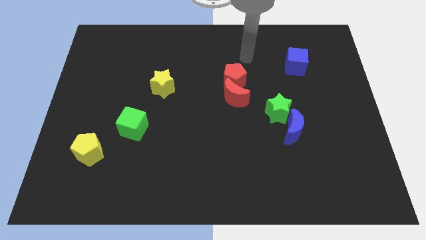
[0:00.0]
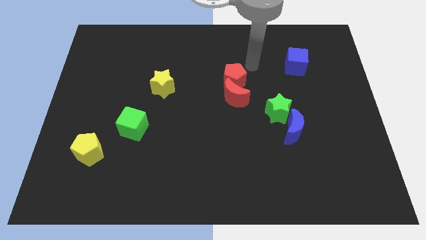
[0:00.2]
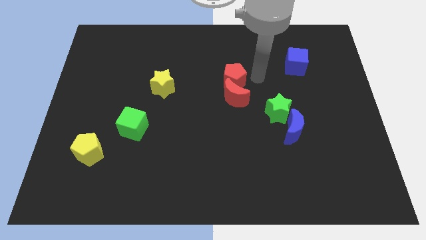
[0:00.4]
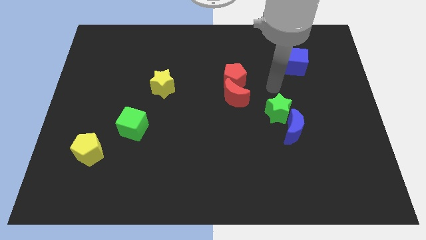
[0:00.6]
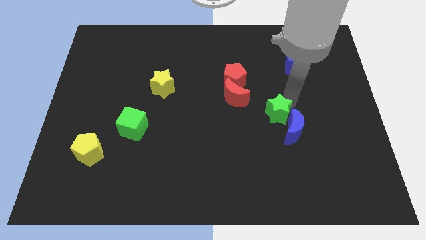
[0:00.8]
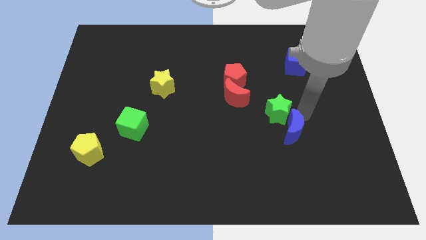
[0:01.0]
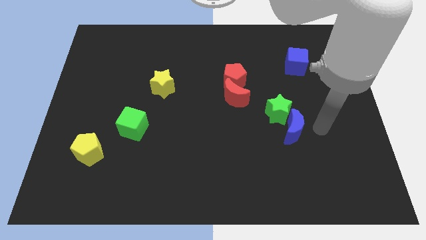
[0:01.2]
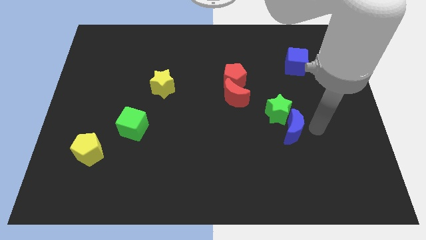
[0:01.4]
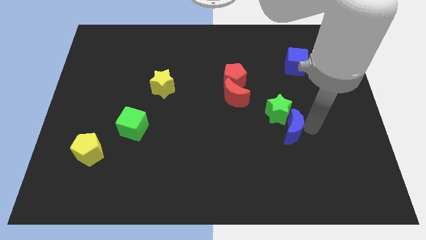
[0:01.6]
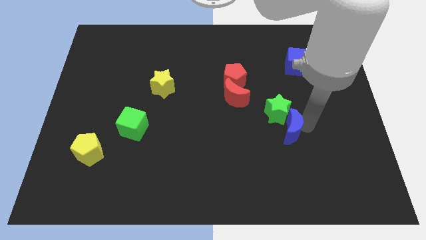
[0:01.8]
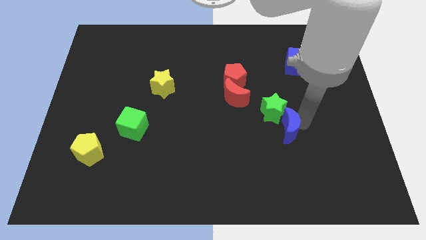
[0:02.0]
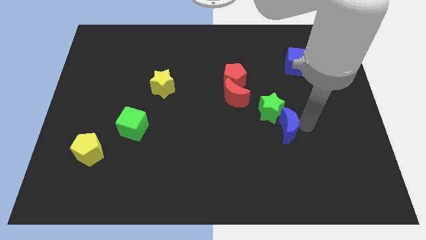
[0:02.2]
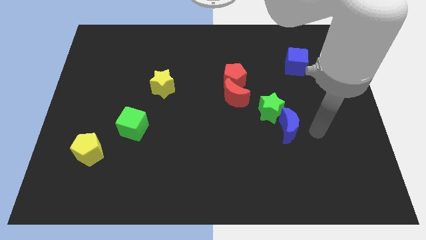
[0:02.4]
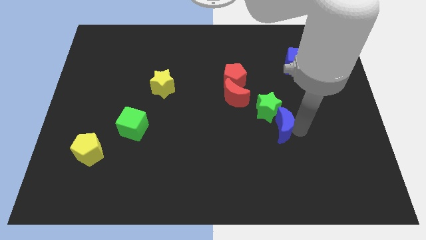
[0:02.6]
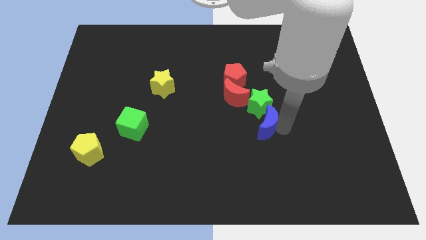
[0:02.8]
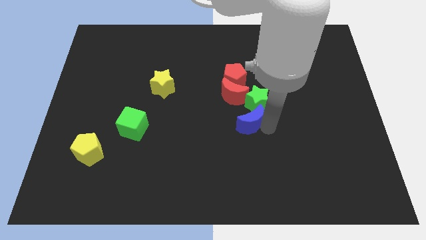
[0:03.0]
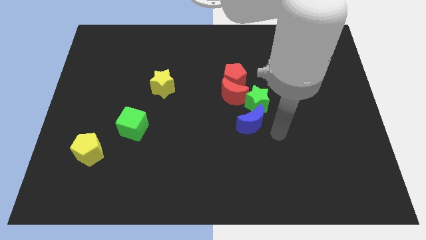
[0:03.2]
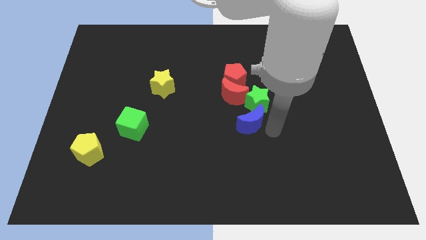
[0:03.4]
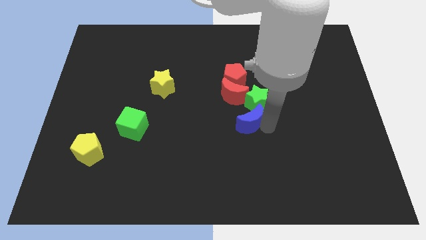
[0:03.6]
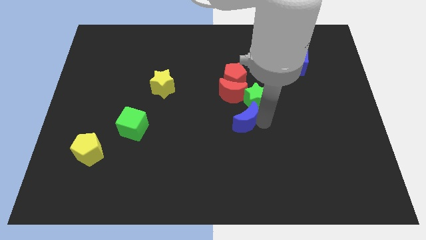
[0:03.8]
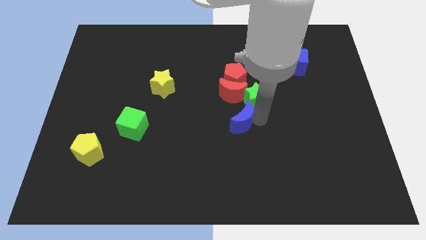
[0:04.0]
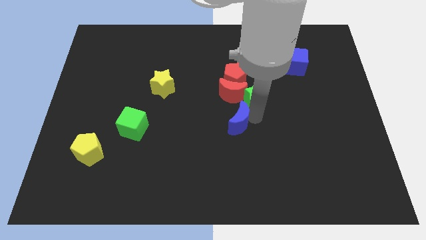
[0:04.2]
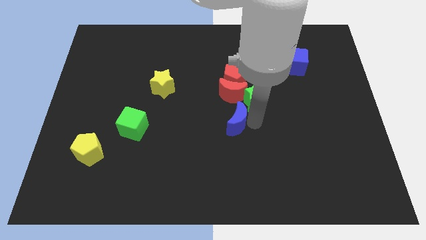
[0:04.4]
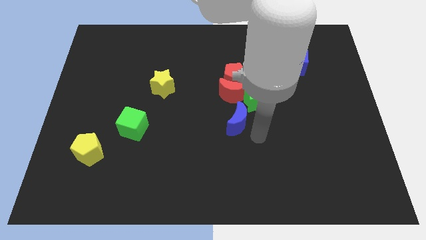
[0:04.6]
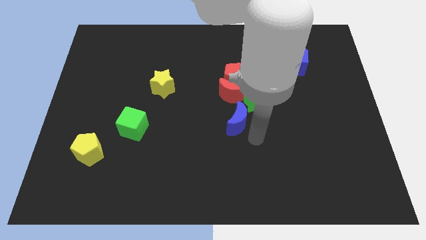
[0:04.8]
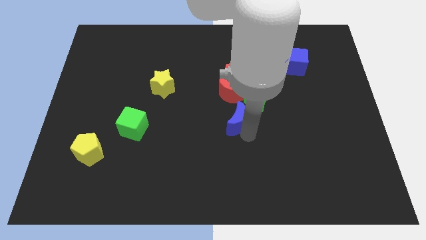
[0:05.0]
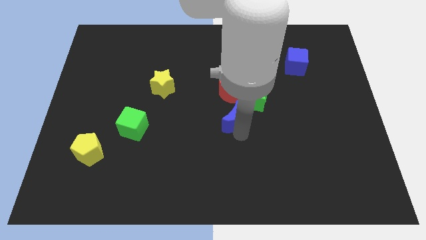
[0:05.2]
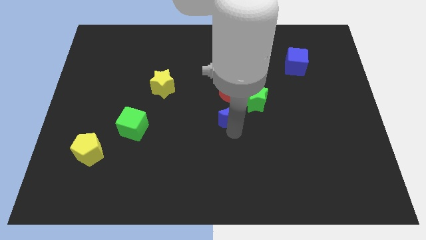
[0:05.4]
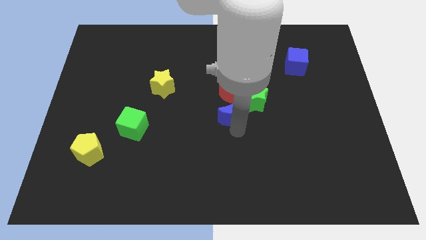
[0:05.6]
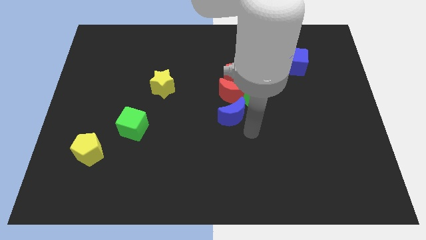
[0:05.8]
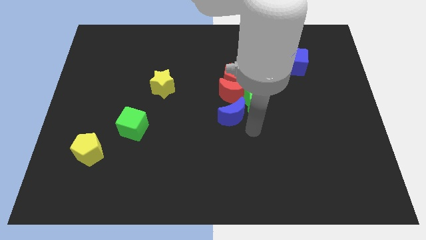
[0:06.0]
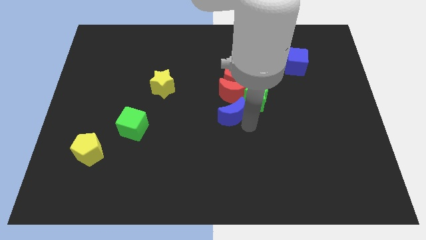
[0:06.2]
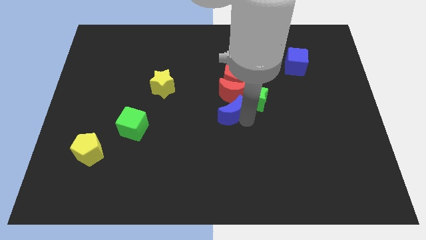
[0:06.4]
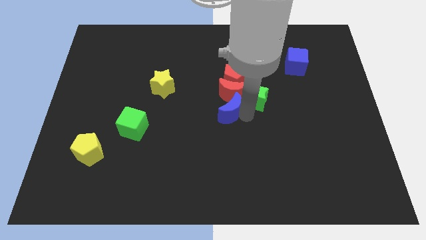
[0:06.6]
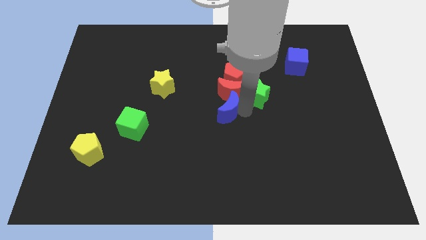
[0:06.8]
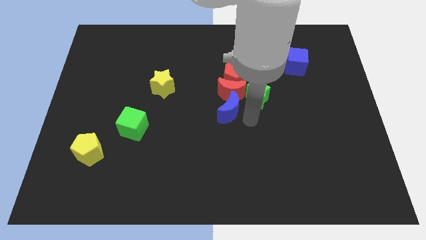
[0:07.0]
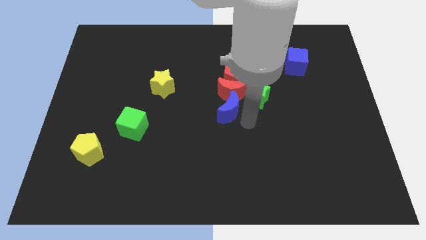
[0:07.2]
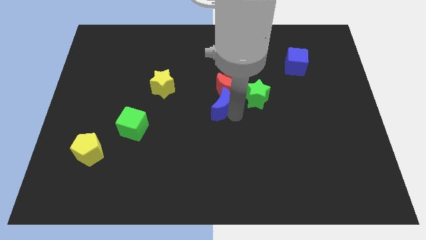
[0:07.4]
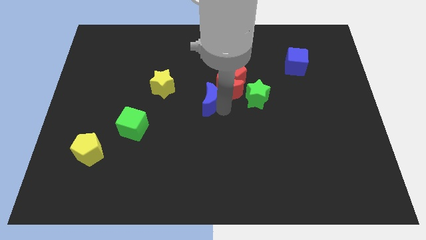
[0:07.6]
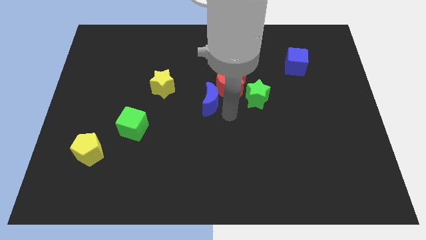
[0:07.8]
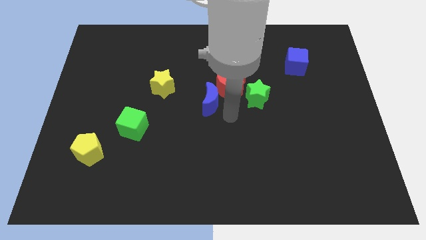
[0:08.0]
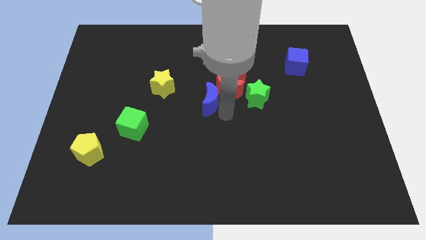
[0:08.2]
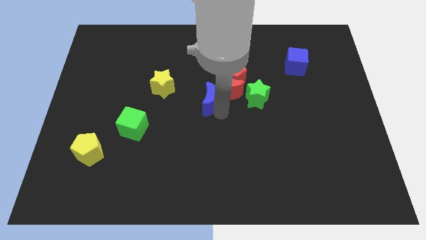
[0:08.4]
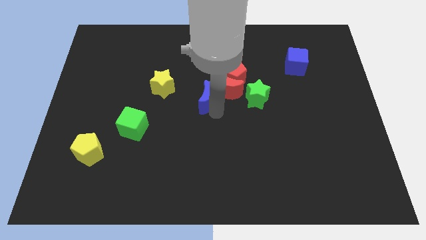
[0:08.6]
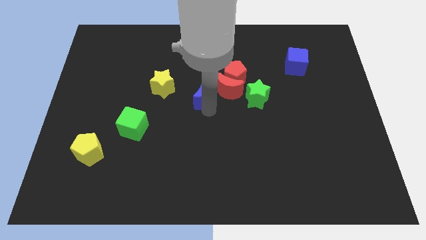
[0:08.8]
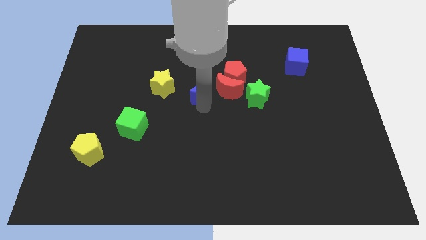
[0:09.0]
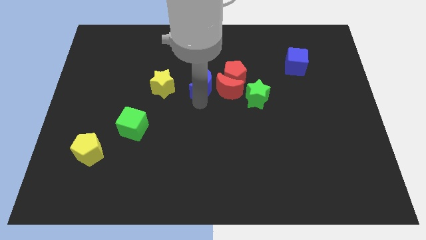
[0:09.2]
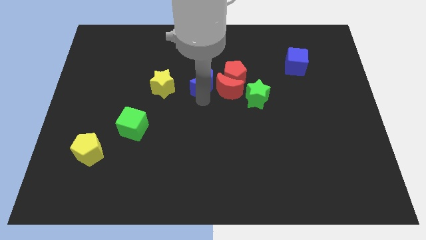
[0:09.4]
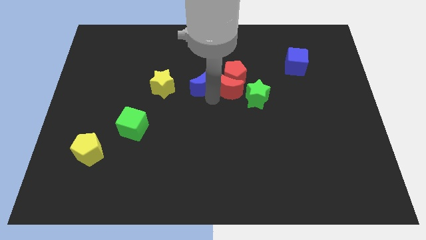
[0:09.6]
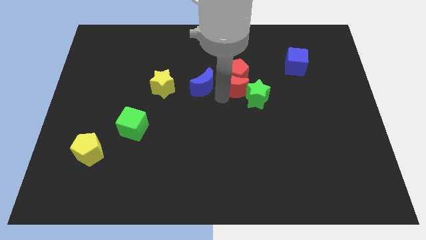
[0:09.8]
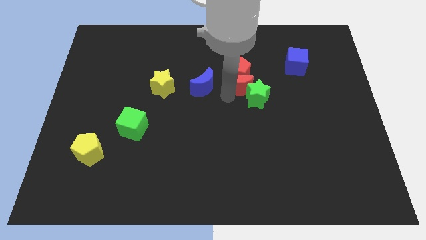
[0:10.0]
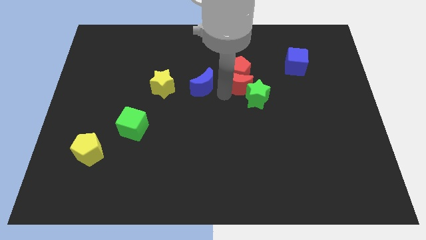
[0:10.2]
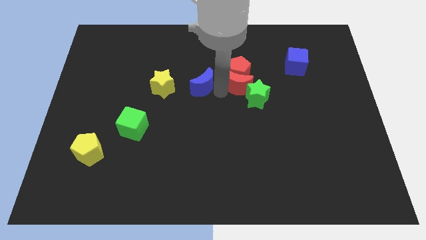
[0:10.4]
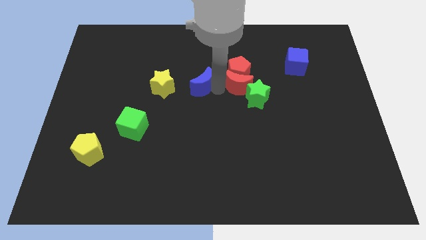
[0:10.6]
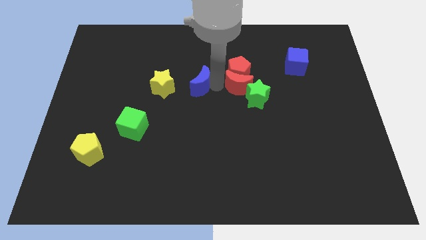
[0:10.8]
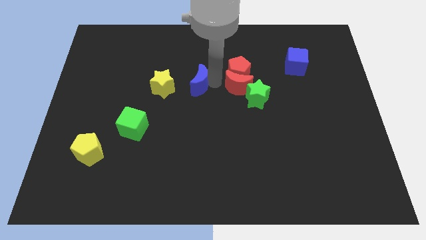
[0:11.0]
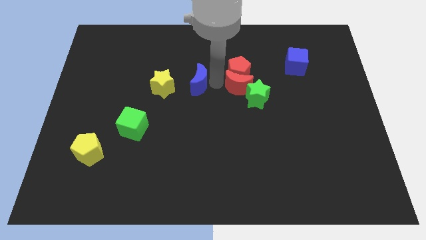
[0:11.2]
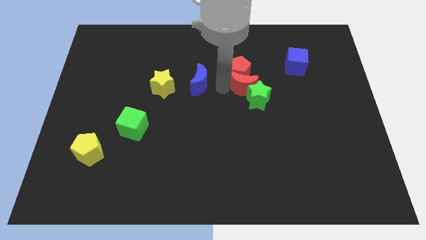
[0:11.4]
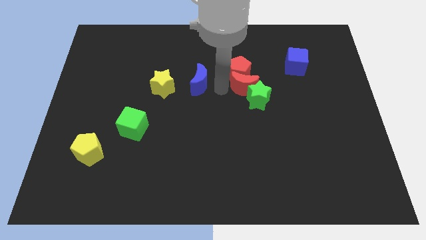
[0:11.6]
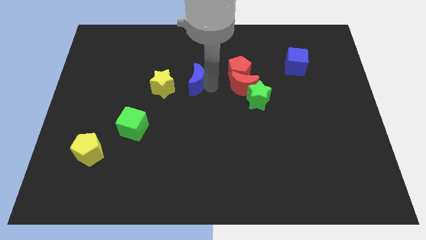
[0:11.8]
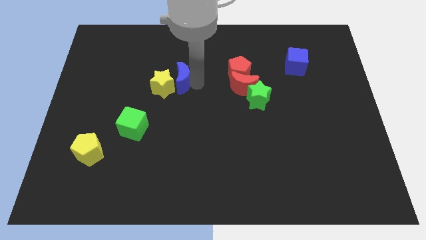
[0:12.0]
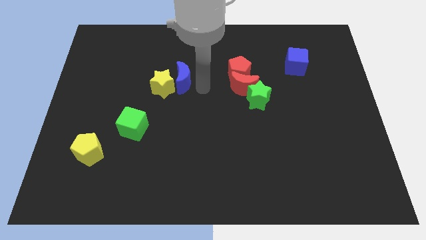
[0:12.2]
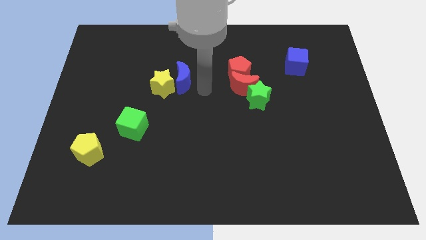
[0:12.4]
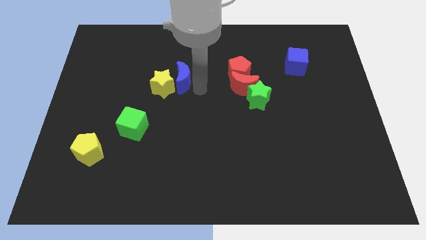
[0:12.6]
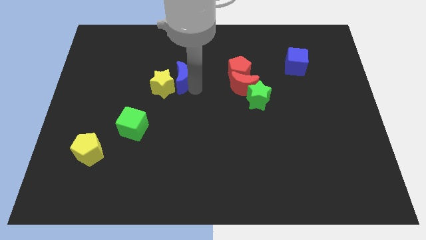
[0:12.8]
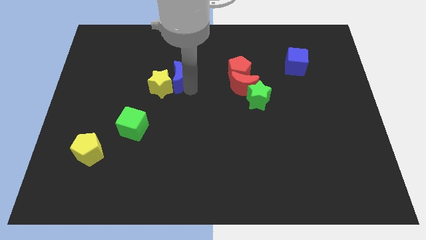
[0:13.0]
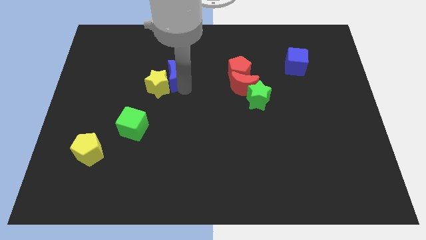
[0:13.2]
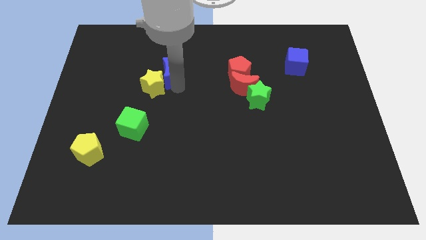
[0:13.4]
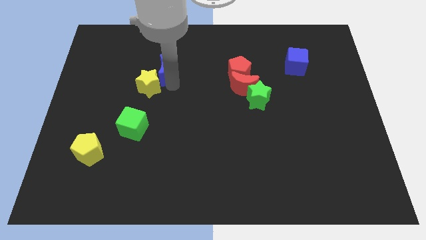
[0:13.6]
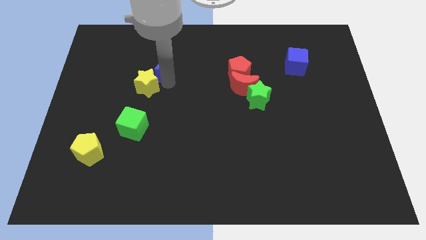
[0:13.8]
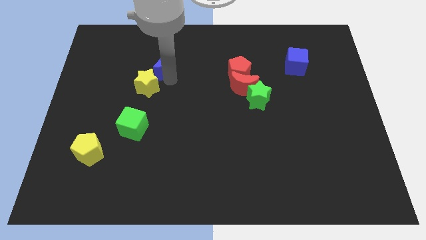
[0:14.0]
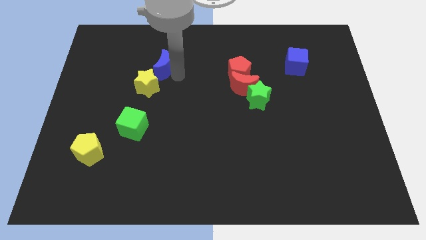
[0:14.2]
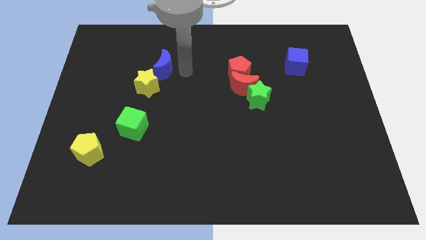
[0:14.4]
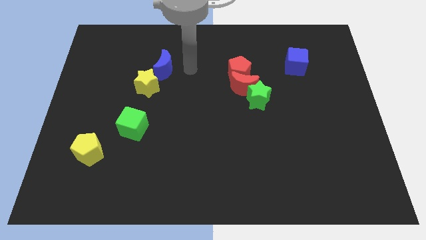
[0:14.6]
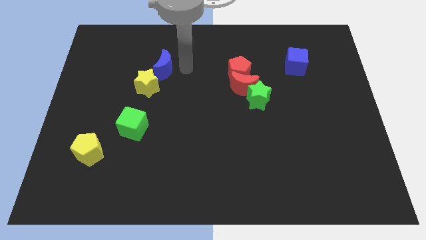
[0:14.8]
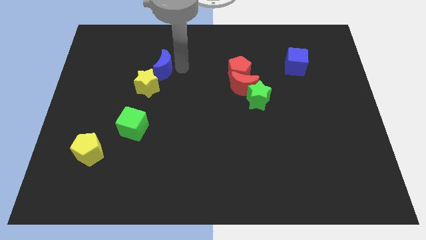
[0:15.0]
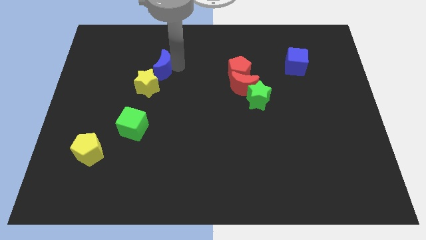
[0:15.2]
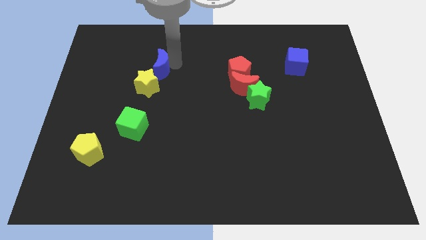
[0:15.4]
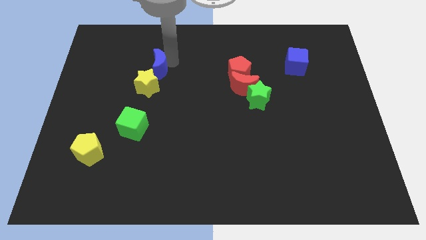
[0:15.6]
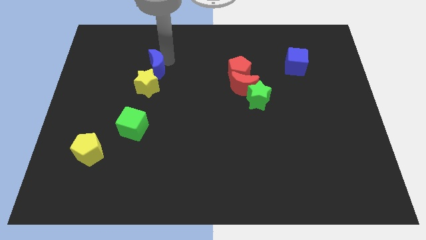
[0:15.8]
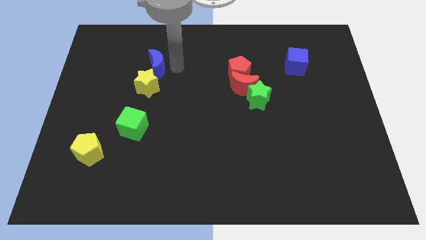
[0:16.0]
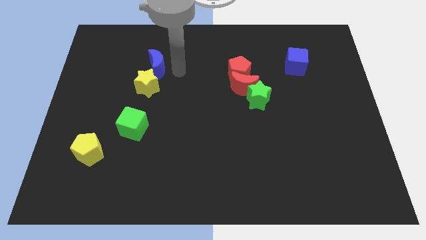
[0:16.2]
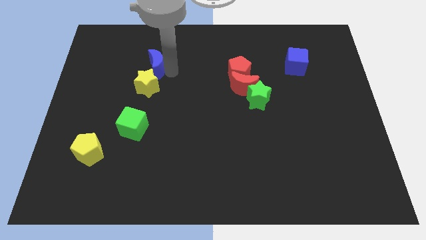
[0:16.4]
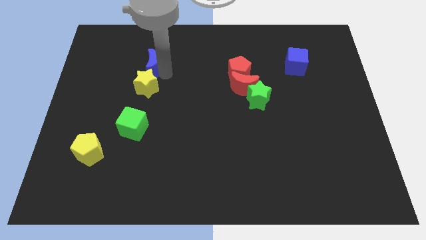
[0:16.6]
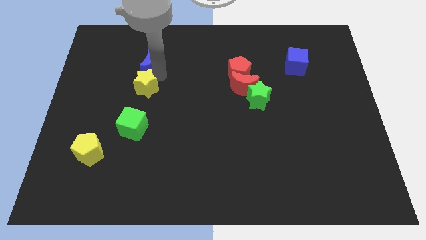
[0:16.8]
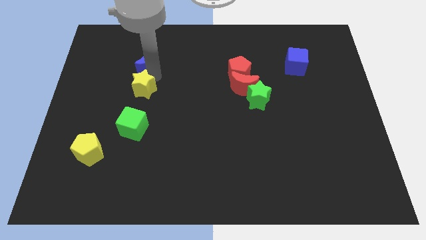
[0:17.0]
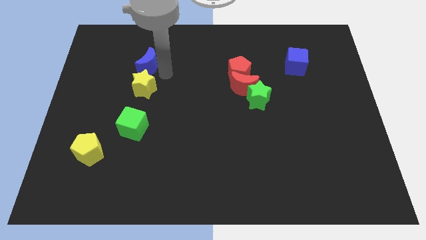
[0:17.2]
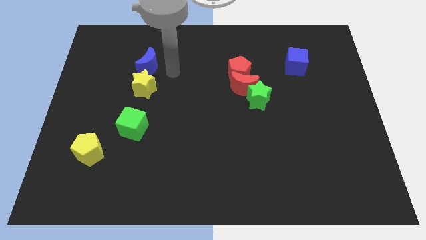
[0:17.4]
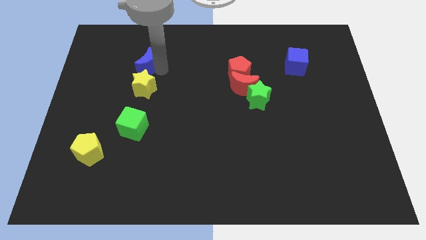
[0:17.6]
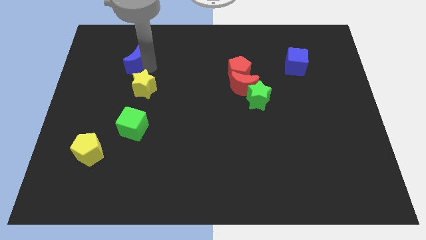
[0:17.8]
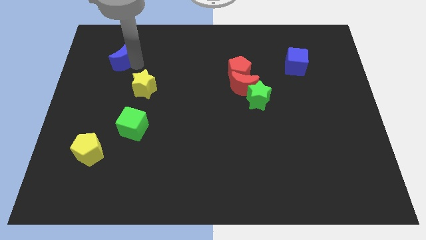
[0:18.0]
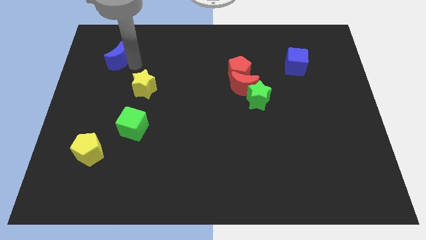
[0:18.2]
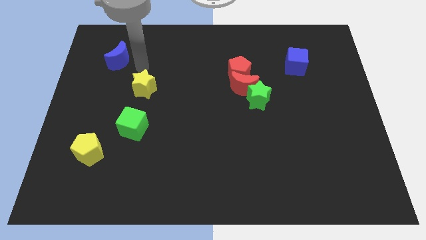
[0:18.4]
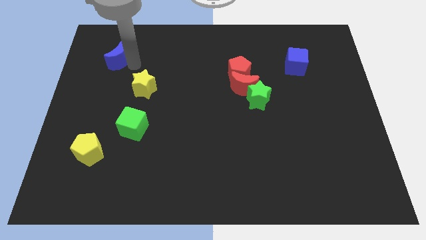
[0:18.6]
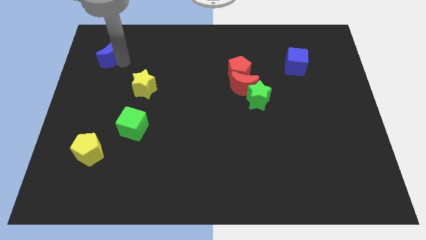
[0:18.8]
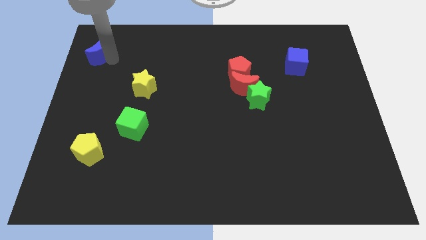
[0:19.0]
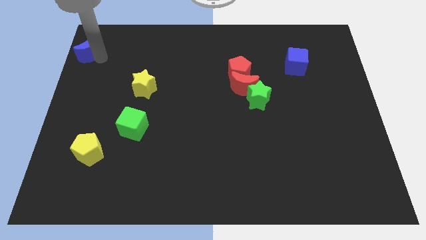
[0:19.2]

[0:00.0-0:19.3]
slide the blue moon to the top left
